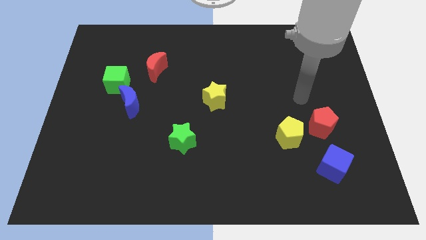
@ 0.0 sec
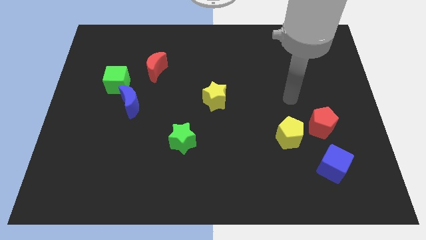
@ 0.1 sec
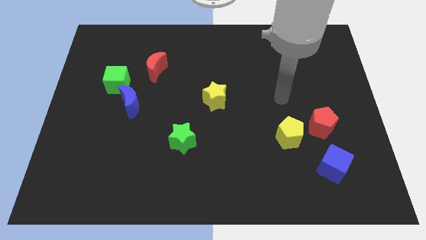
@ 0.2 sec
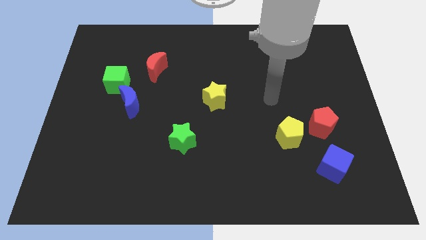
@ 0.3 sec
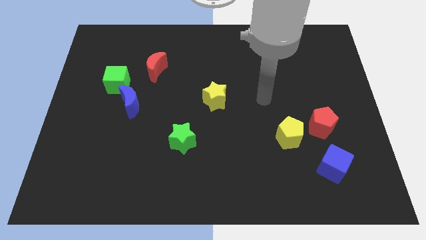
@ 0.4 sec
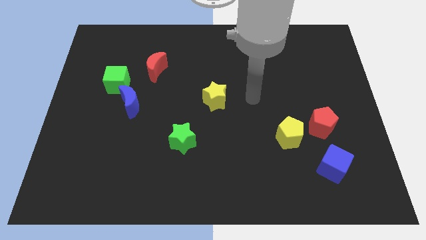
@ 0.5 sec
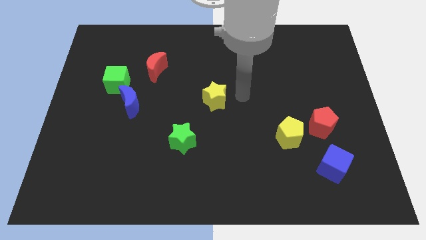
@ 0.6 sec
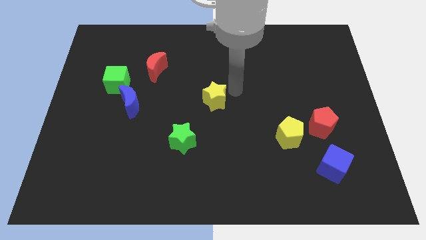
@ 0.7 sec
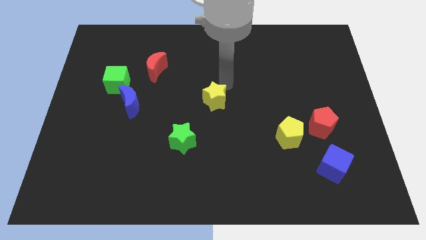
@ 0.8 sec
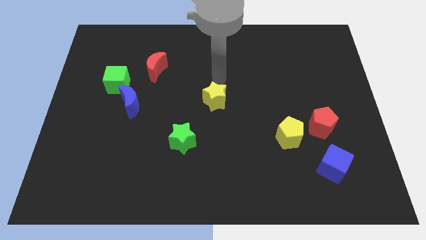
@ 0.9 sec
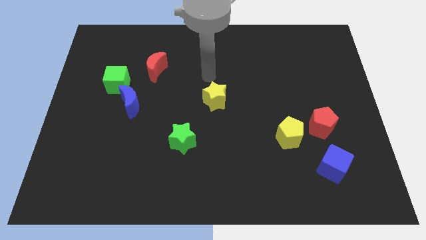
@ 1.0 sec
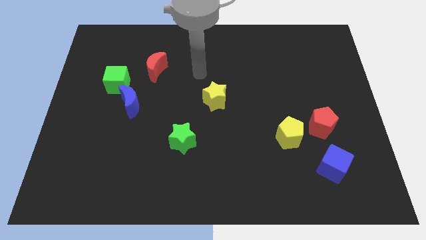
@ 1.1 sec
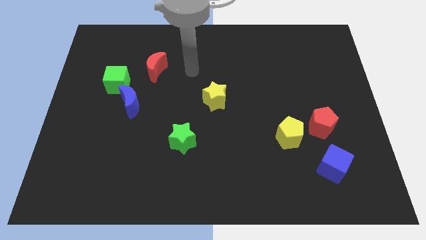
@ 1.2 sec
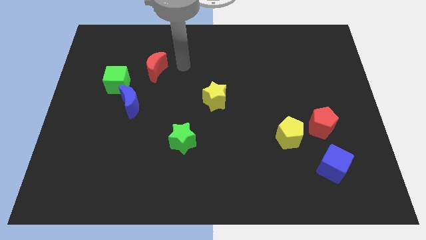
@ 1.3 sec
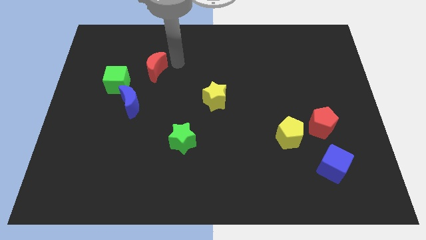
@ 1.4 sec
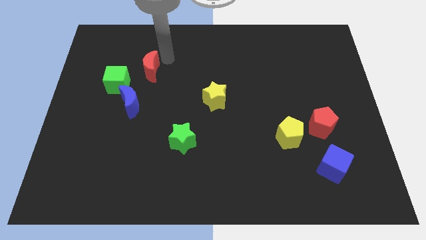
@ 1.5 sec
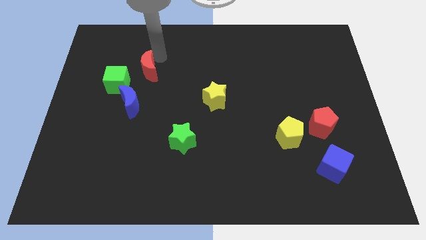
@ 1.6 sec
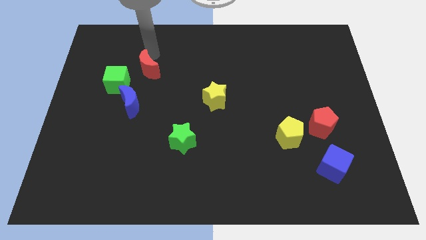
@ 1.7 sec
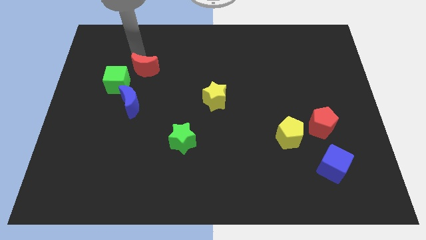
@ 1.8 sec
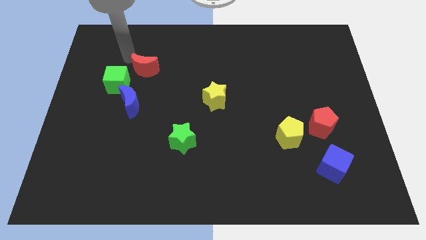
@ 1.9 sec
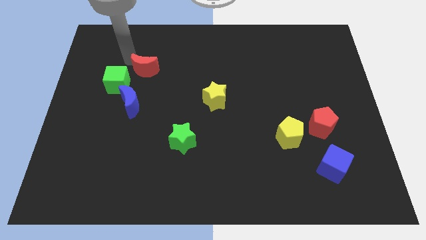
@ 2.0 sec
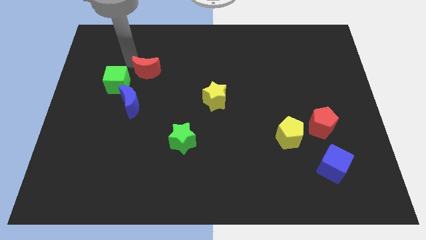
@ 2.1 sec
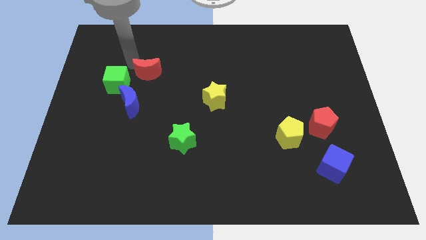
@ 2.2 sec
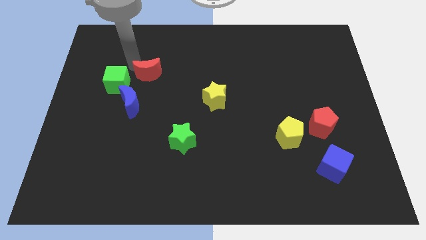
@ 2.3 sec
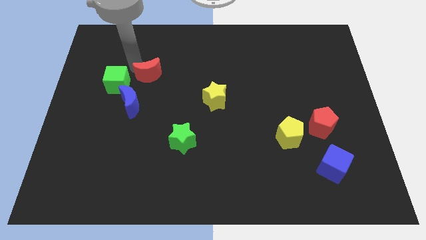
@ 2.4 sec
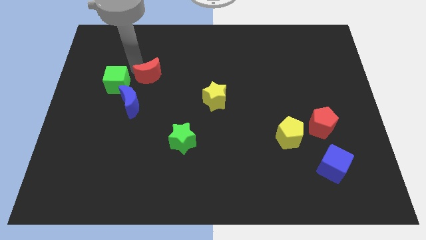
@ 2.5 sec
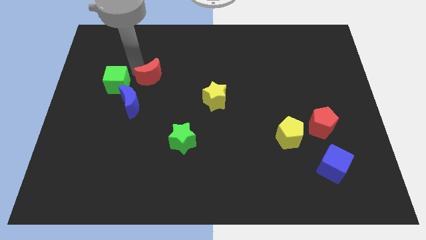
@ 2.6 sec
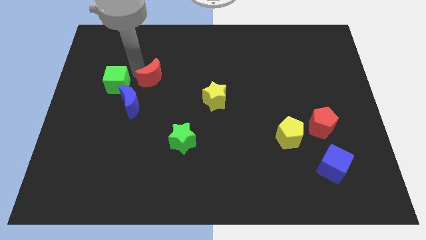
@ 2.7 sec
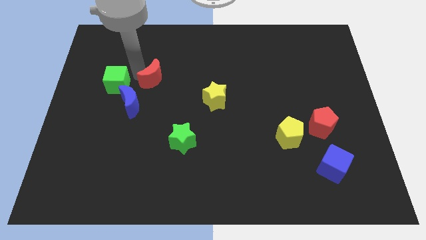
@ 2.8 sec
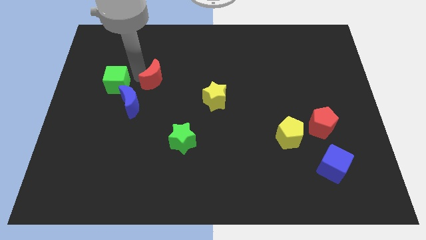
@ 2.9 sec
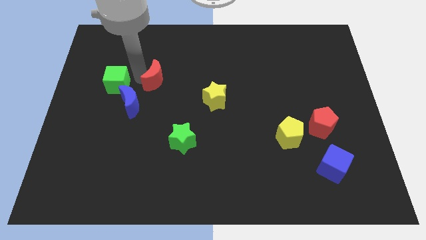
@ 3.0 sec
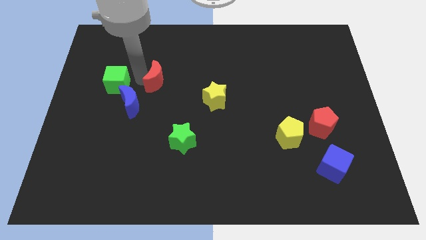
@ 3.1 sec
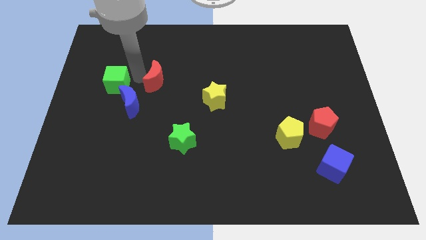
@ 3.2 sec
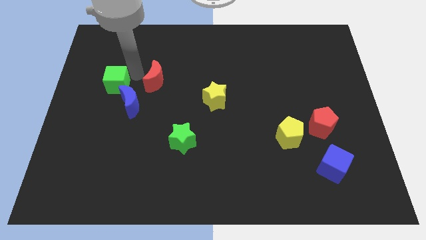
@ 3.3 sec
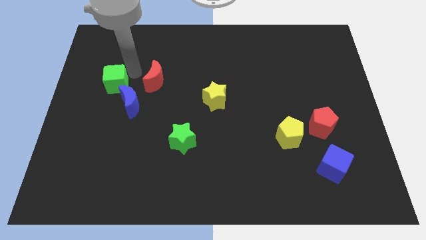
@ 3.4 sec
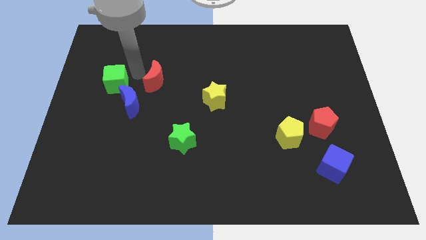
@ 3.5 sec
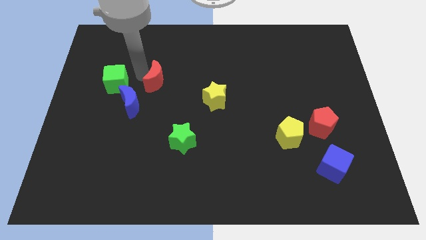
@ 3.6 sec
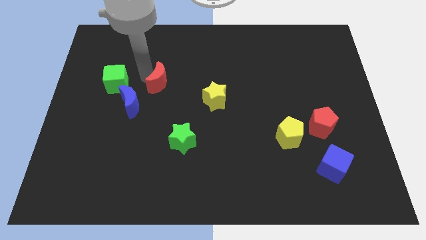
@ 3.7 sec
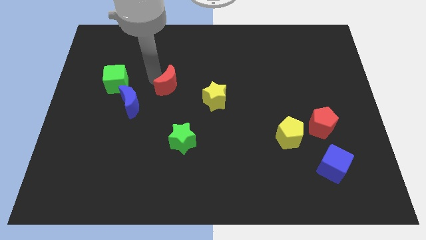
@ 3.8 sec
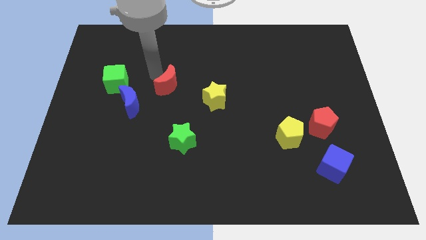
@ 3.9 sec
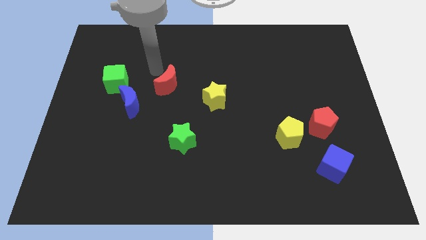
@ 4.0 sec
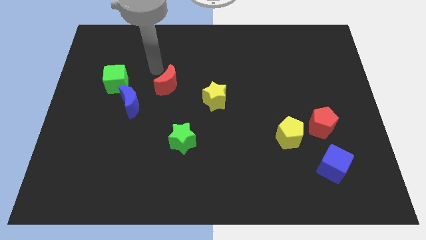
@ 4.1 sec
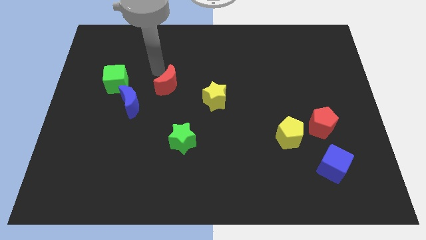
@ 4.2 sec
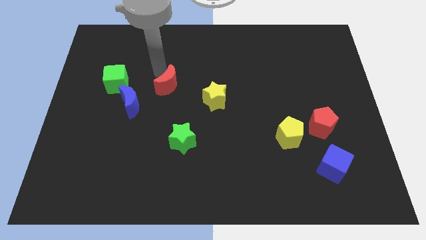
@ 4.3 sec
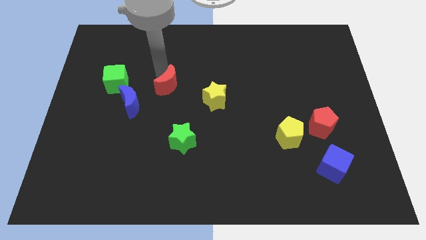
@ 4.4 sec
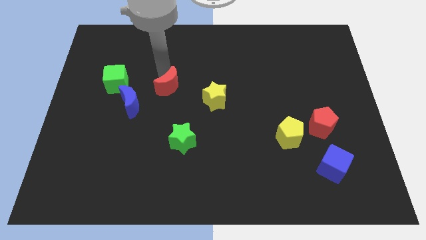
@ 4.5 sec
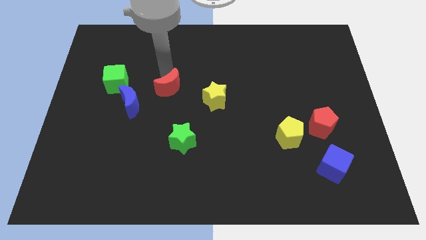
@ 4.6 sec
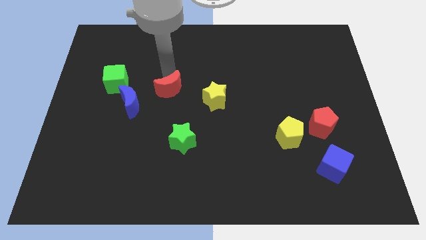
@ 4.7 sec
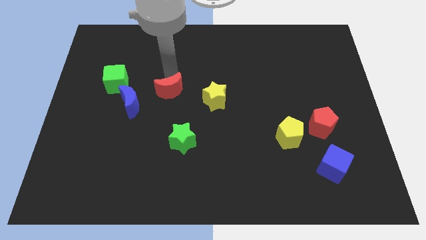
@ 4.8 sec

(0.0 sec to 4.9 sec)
put the red moon to the top of the green star

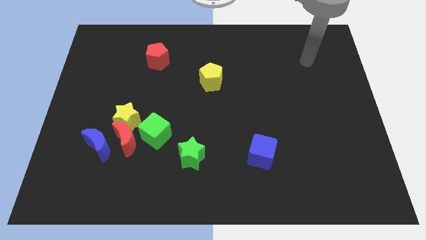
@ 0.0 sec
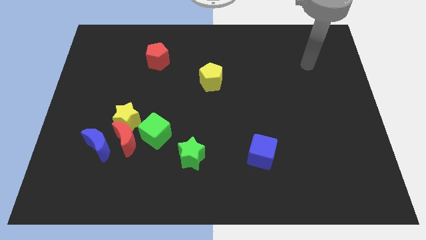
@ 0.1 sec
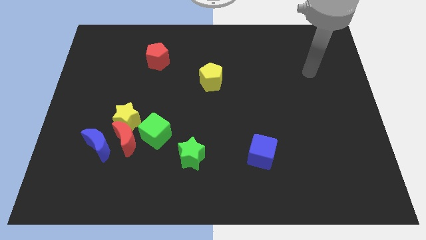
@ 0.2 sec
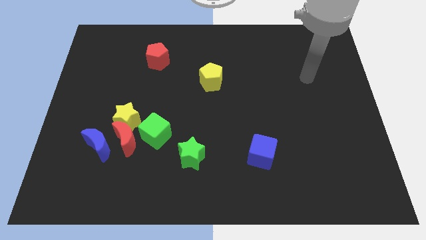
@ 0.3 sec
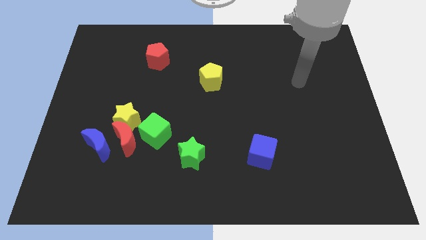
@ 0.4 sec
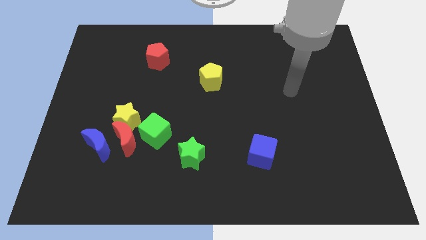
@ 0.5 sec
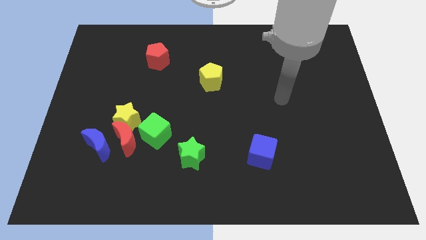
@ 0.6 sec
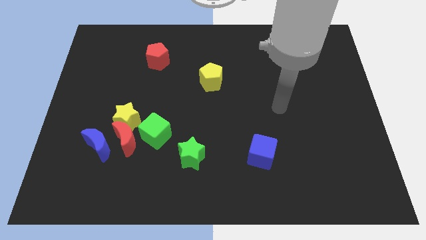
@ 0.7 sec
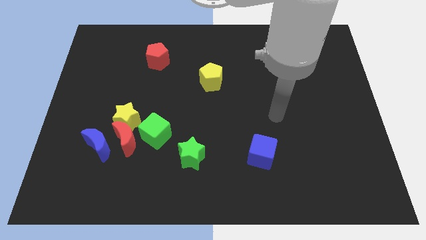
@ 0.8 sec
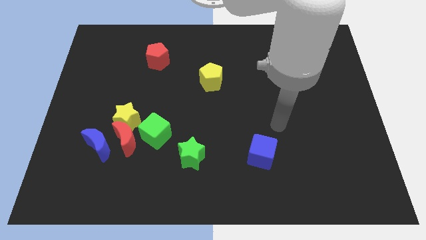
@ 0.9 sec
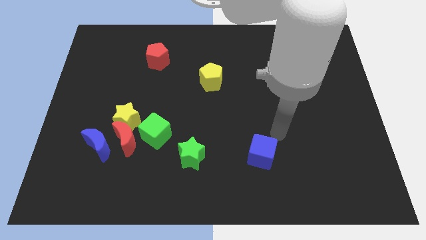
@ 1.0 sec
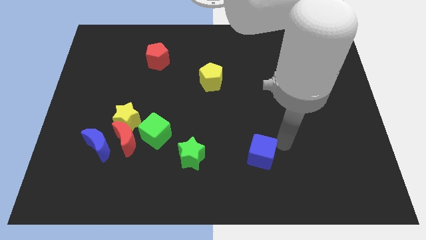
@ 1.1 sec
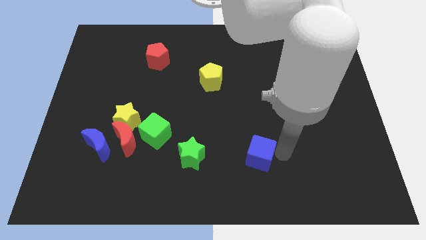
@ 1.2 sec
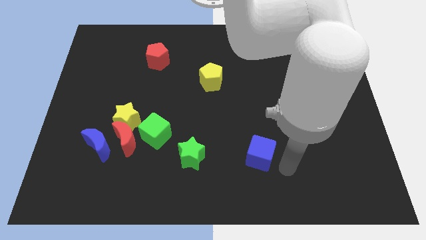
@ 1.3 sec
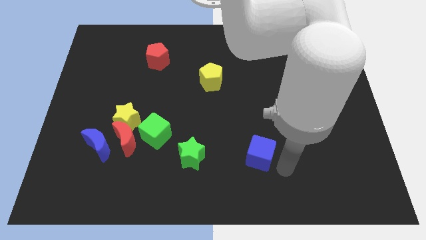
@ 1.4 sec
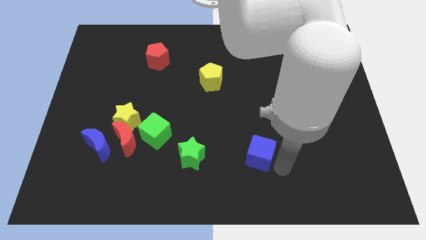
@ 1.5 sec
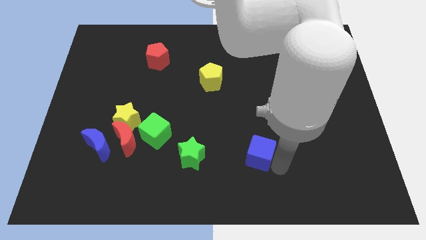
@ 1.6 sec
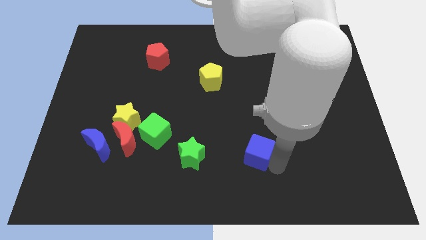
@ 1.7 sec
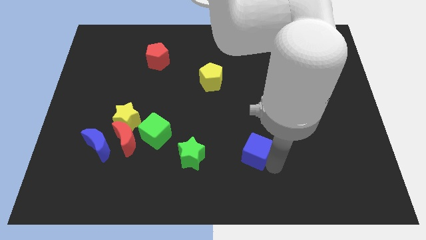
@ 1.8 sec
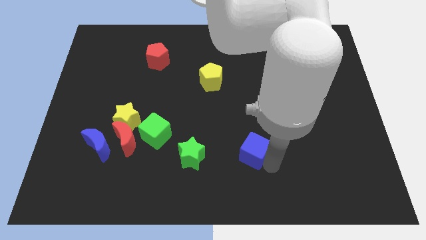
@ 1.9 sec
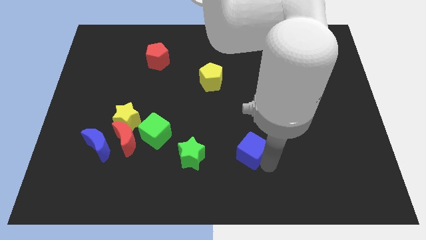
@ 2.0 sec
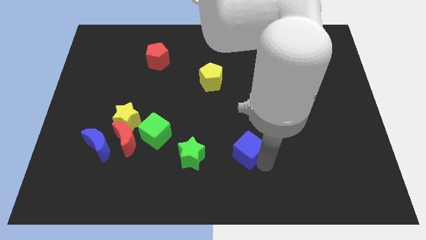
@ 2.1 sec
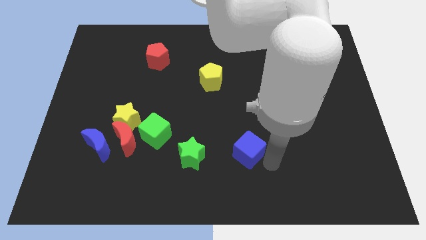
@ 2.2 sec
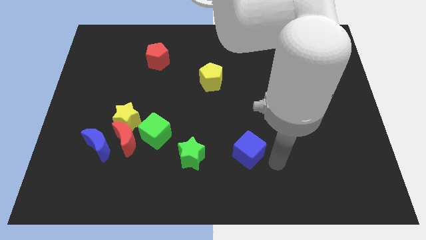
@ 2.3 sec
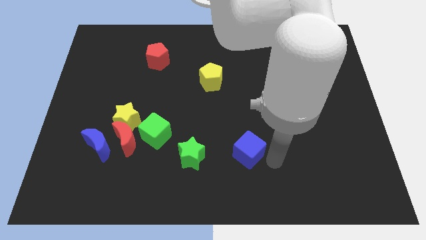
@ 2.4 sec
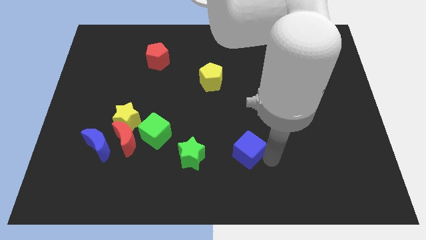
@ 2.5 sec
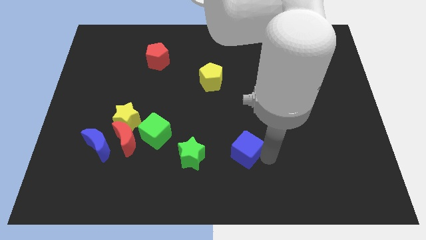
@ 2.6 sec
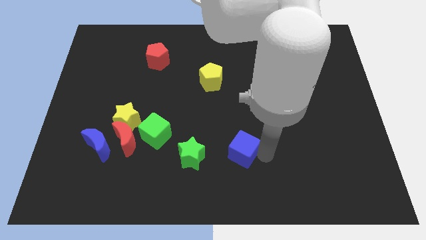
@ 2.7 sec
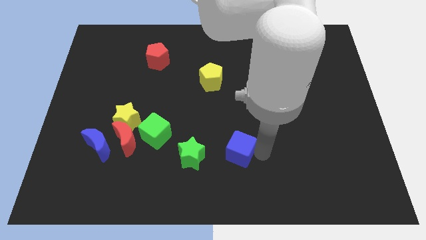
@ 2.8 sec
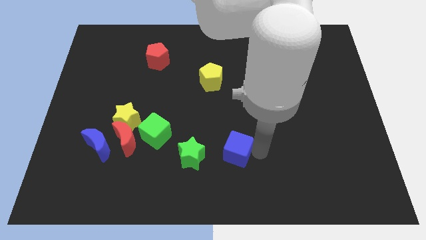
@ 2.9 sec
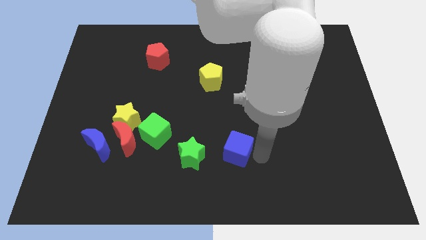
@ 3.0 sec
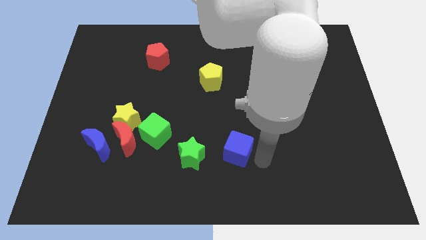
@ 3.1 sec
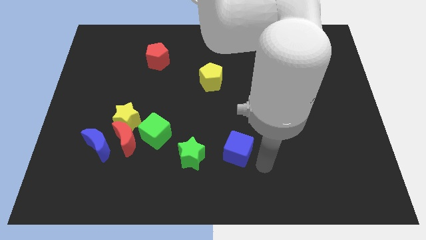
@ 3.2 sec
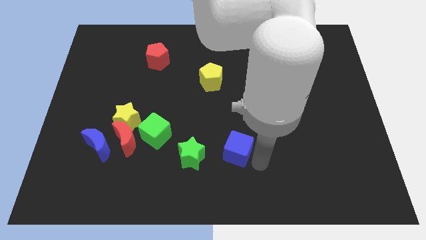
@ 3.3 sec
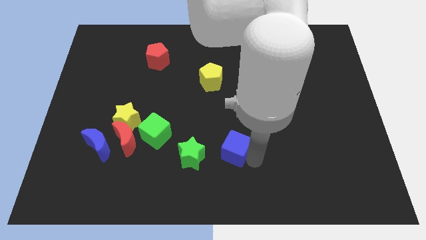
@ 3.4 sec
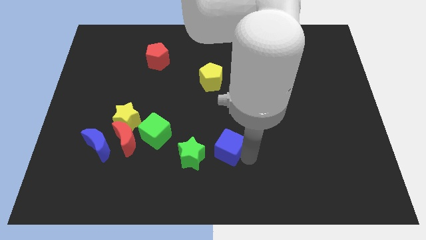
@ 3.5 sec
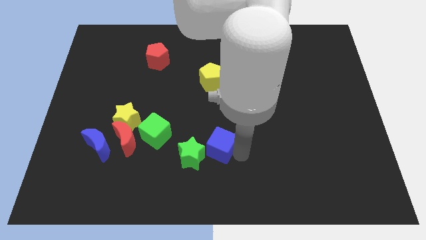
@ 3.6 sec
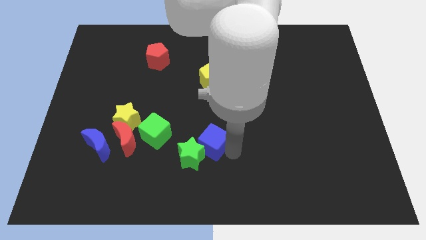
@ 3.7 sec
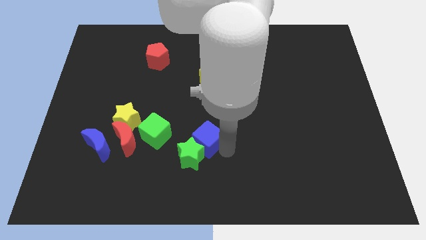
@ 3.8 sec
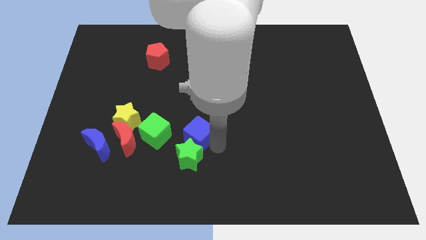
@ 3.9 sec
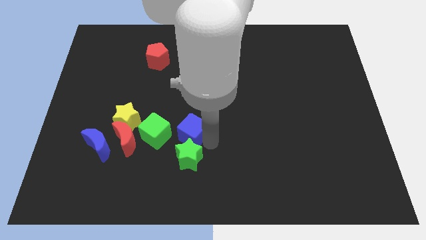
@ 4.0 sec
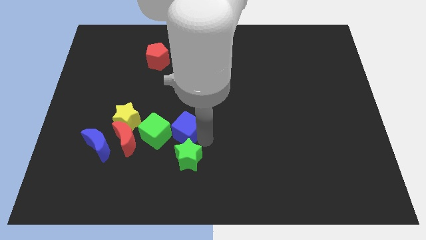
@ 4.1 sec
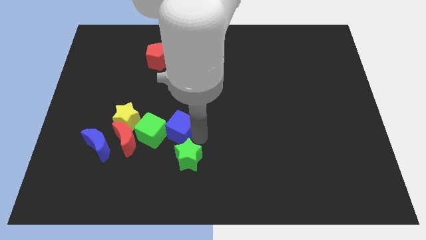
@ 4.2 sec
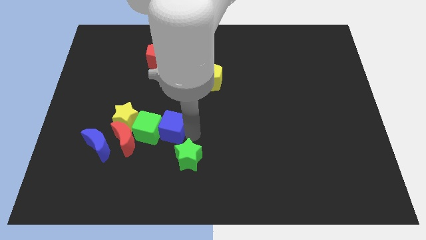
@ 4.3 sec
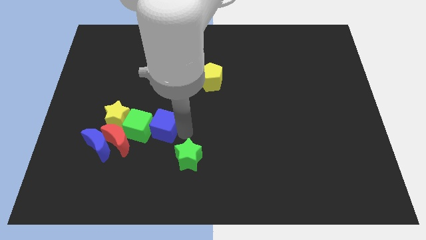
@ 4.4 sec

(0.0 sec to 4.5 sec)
move the blue cube to the top right of the red moon
